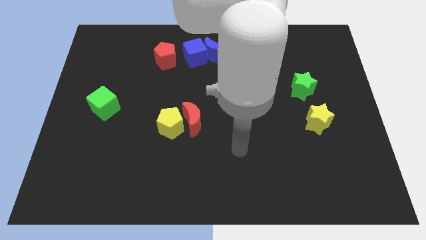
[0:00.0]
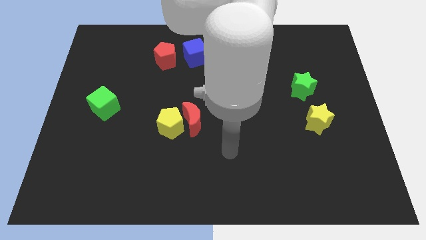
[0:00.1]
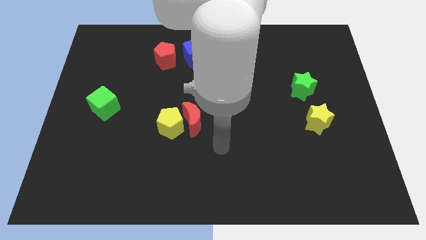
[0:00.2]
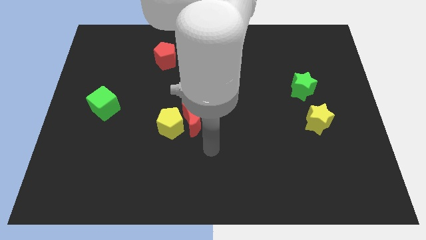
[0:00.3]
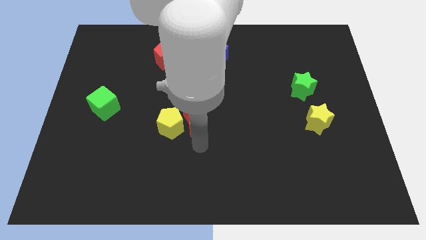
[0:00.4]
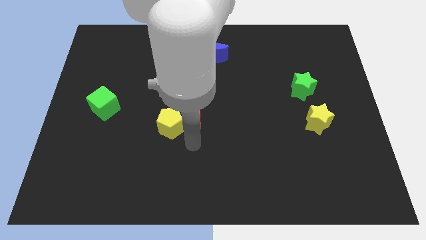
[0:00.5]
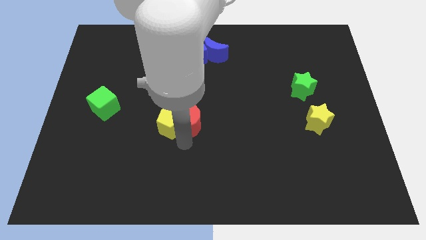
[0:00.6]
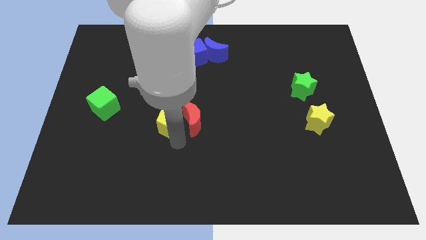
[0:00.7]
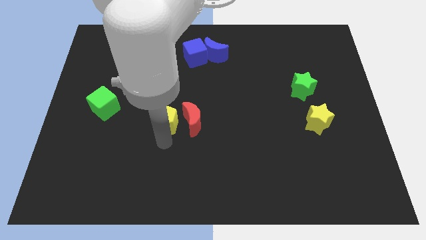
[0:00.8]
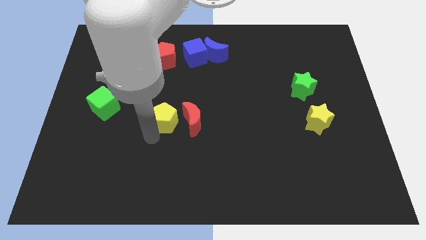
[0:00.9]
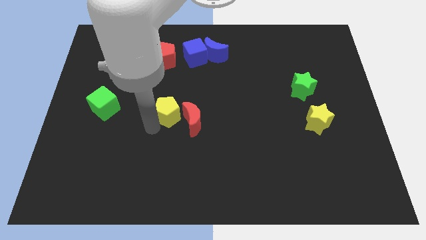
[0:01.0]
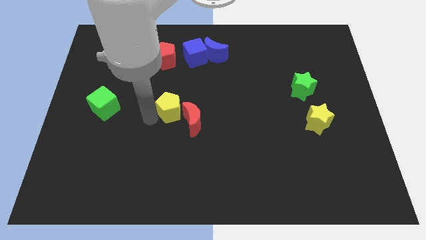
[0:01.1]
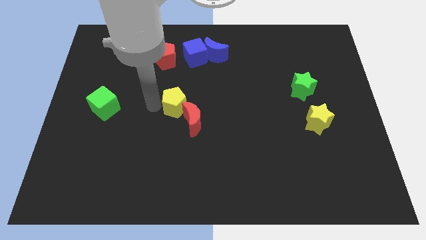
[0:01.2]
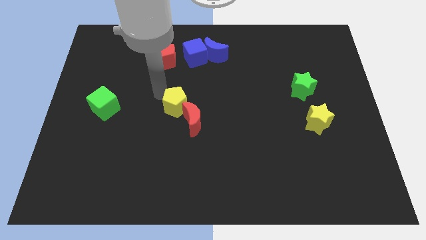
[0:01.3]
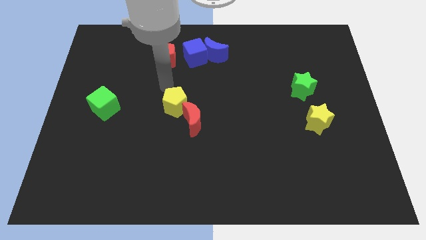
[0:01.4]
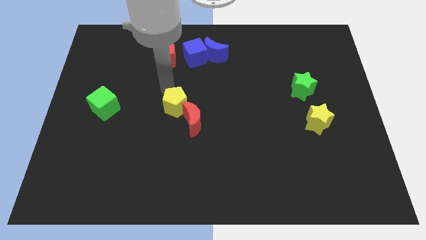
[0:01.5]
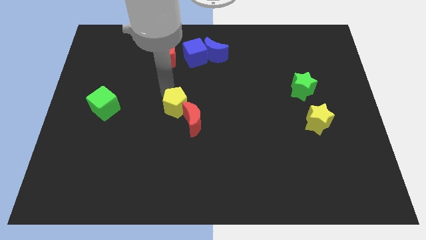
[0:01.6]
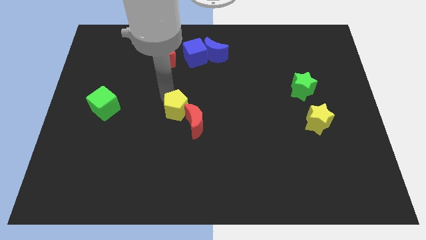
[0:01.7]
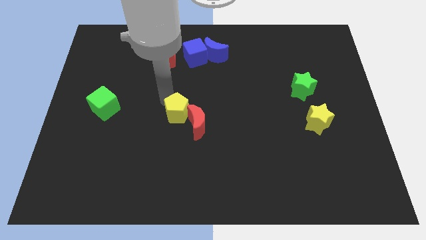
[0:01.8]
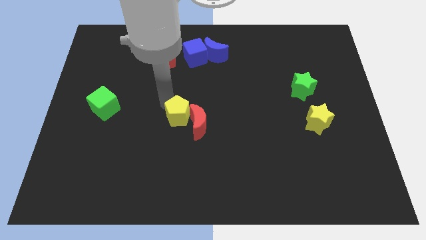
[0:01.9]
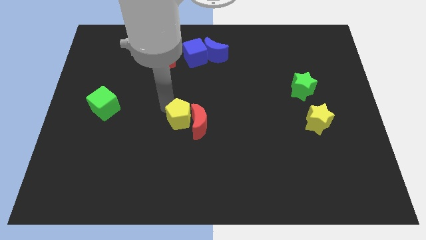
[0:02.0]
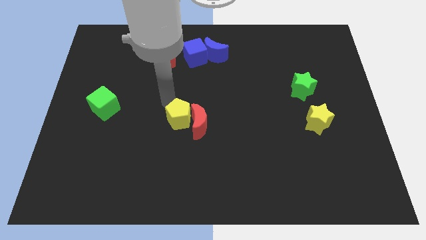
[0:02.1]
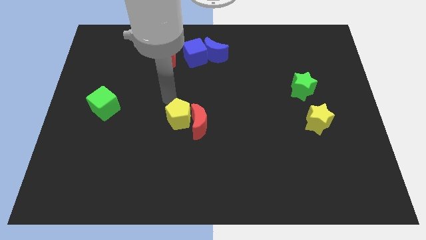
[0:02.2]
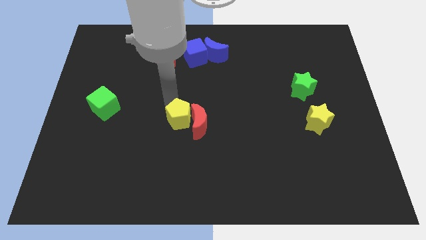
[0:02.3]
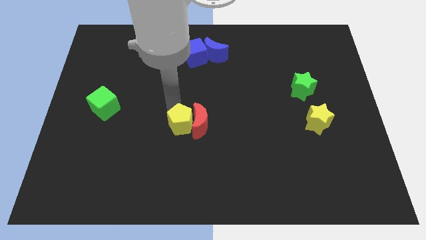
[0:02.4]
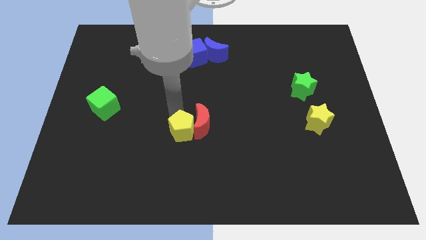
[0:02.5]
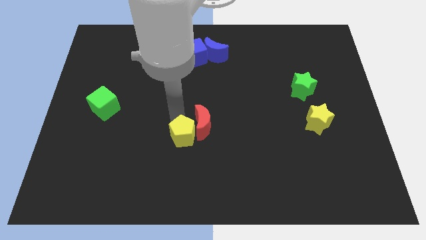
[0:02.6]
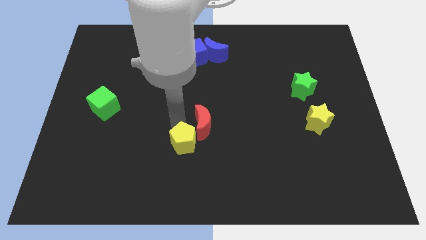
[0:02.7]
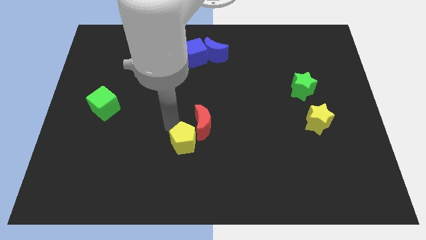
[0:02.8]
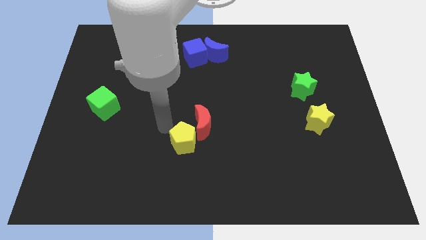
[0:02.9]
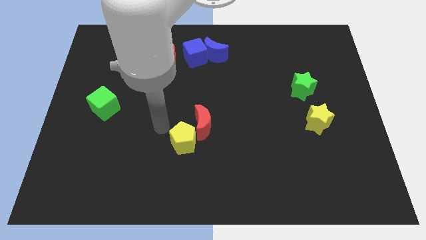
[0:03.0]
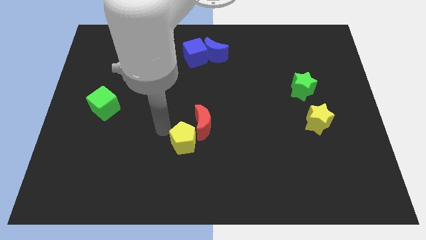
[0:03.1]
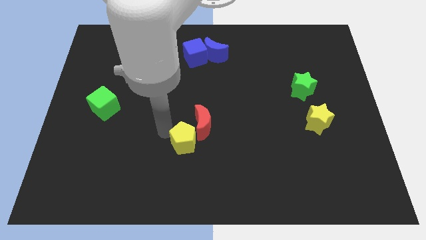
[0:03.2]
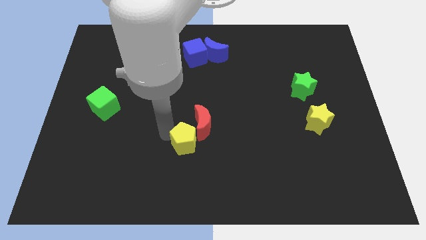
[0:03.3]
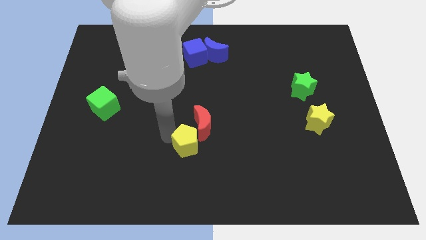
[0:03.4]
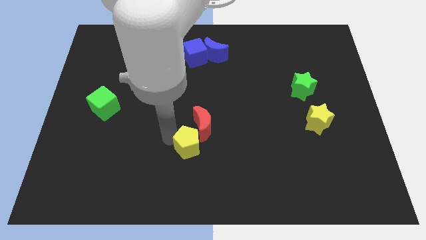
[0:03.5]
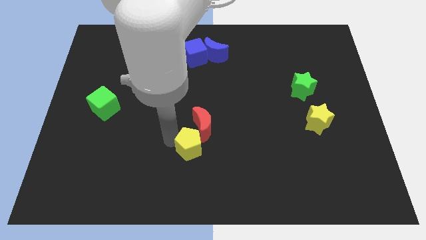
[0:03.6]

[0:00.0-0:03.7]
slightly move the yellow pentagon diagonally down and right

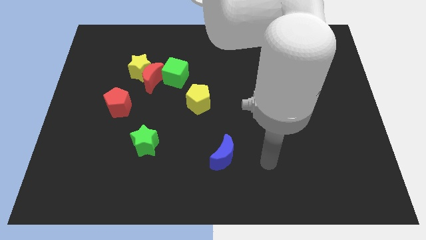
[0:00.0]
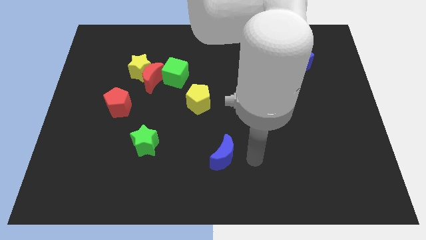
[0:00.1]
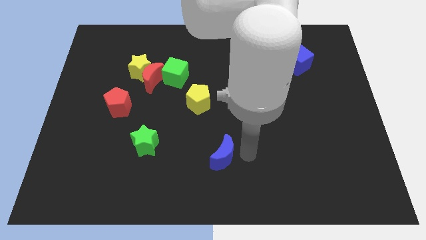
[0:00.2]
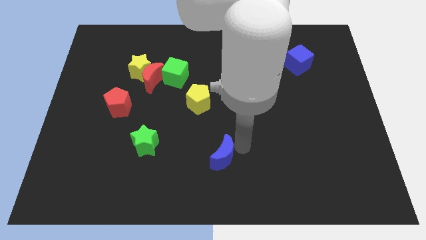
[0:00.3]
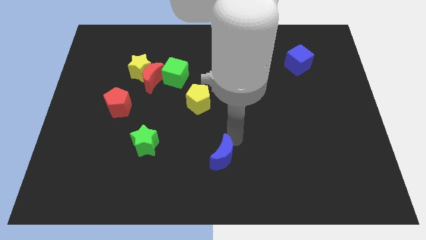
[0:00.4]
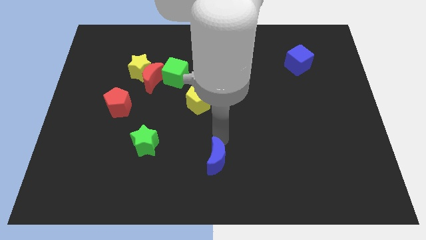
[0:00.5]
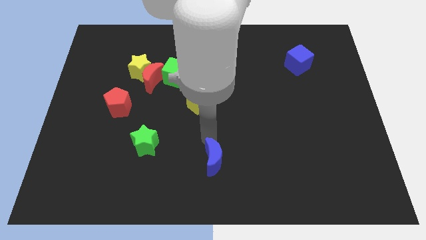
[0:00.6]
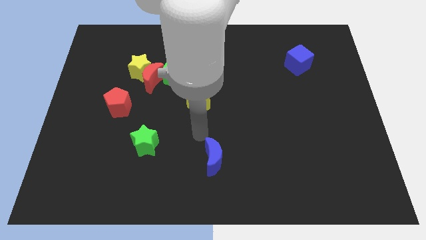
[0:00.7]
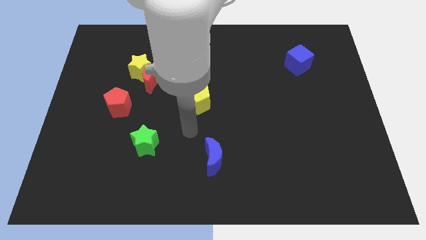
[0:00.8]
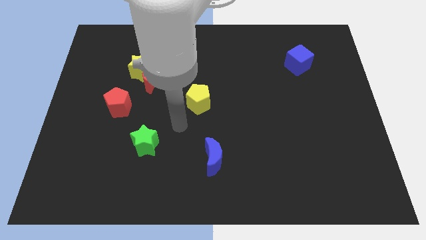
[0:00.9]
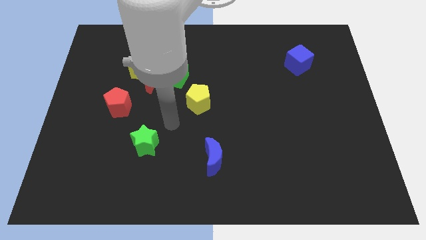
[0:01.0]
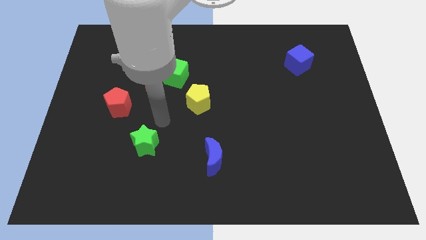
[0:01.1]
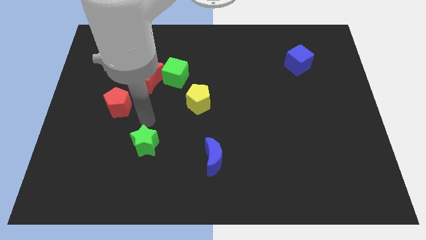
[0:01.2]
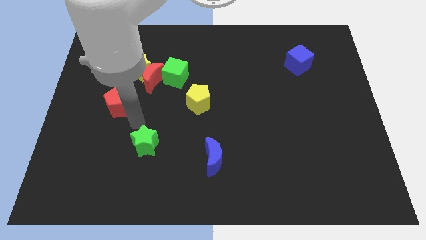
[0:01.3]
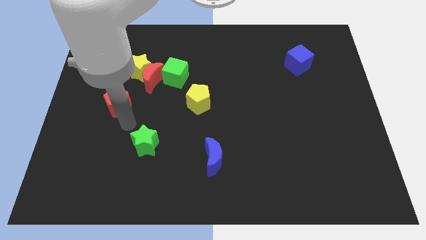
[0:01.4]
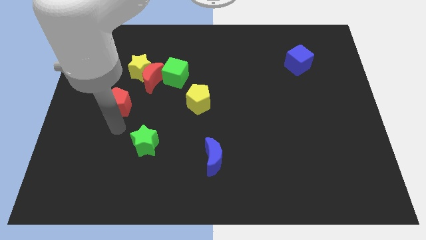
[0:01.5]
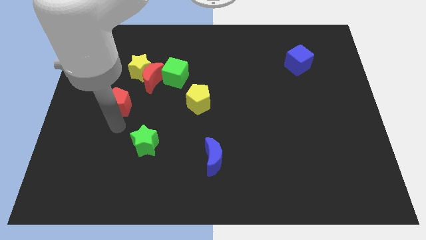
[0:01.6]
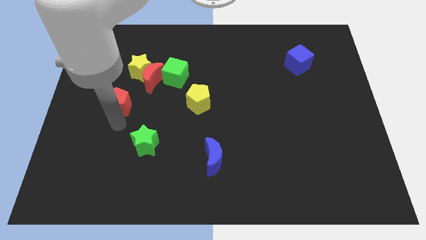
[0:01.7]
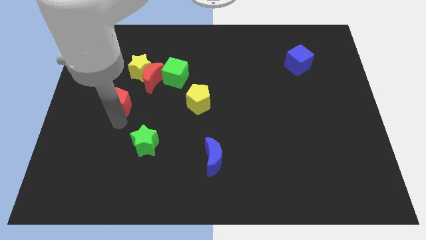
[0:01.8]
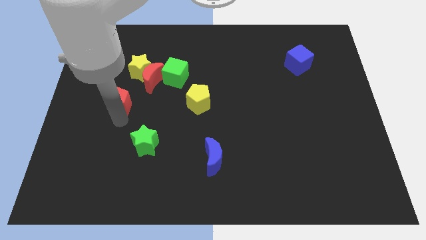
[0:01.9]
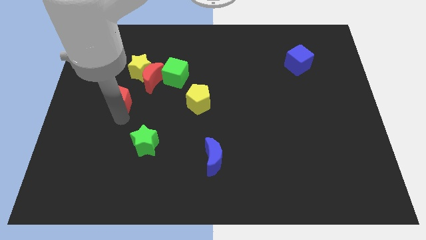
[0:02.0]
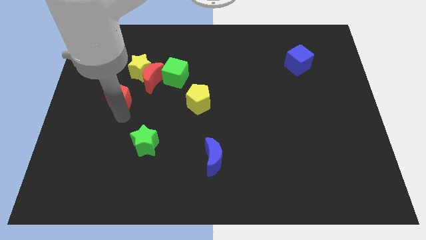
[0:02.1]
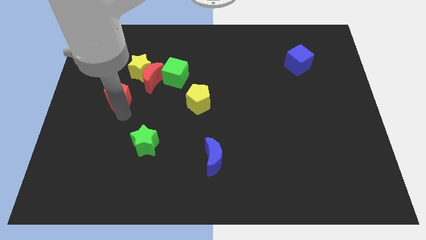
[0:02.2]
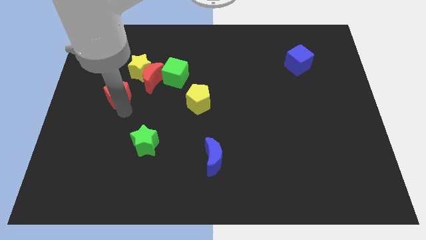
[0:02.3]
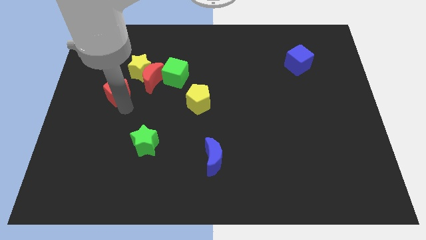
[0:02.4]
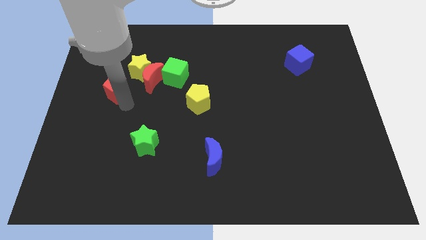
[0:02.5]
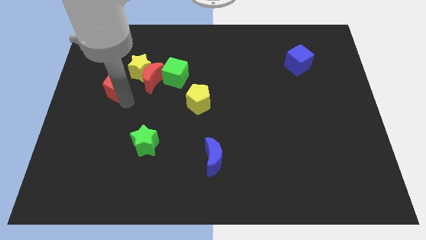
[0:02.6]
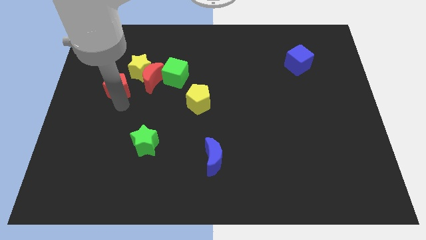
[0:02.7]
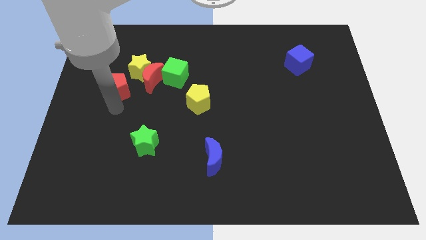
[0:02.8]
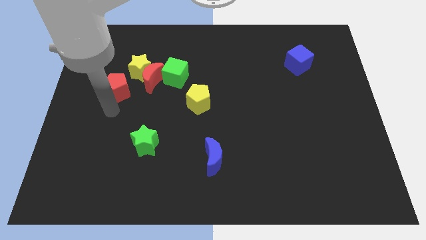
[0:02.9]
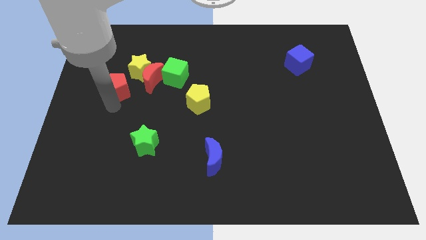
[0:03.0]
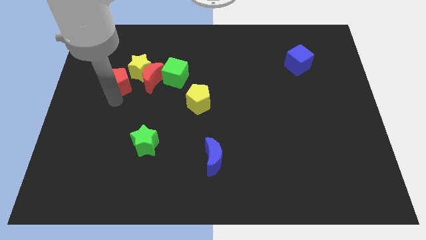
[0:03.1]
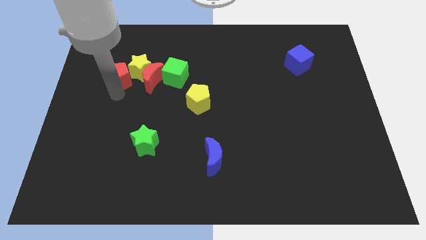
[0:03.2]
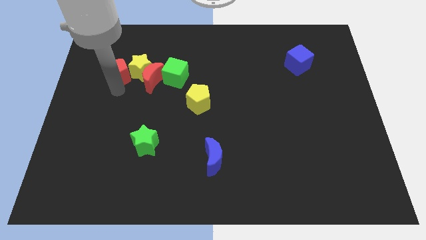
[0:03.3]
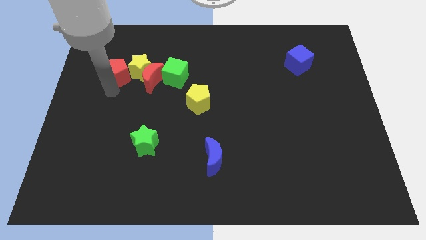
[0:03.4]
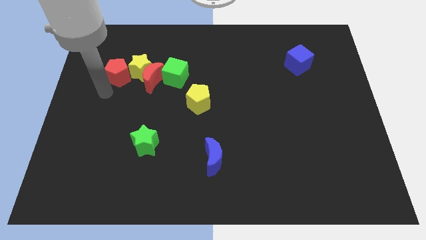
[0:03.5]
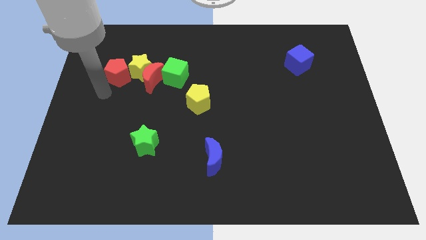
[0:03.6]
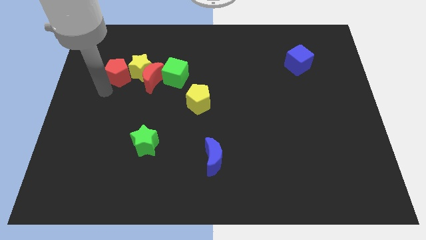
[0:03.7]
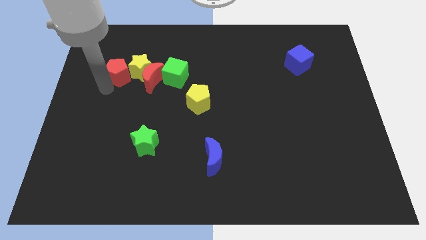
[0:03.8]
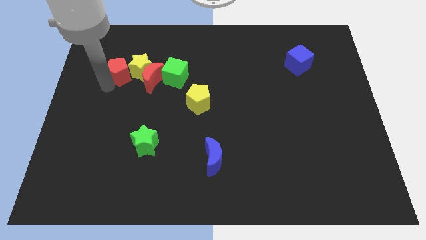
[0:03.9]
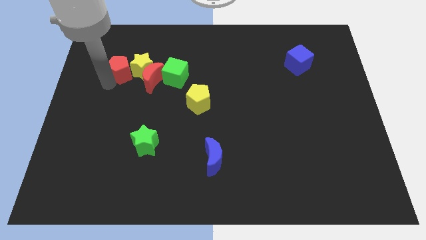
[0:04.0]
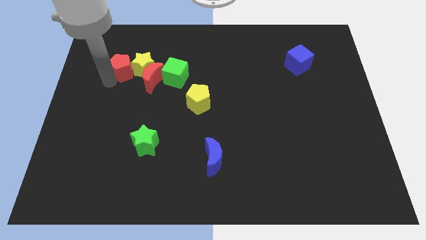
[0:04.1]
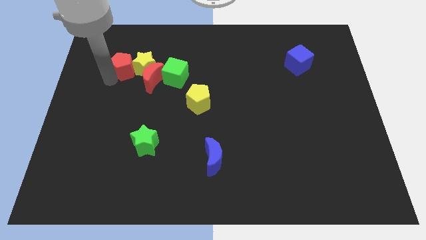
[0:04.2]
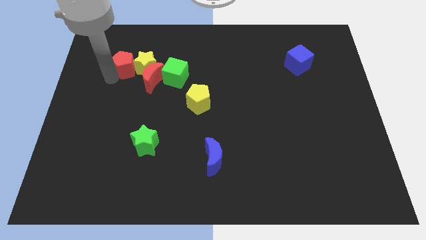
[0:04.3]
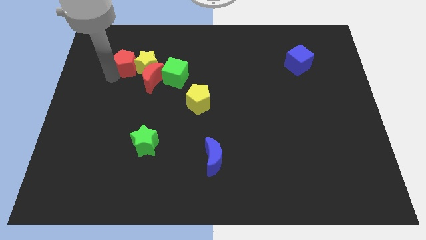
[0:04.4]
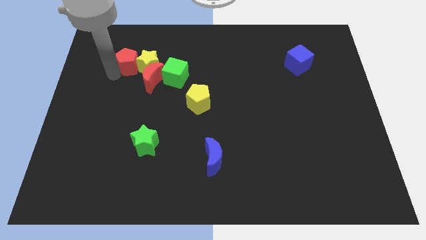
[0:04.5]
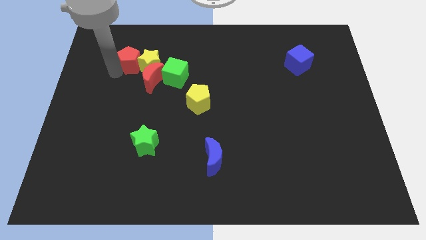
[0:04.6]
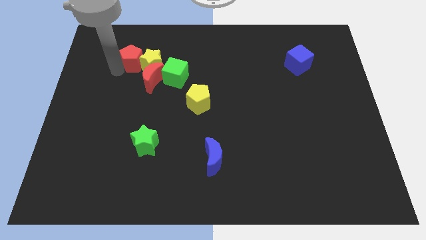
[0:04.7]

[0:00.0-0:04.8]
move the red pentagon up and to the right a little bit
